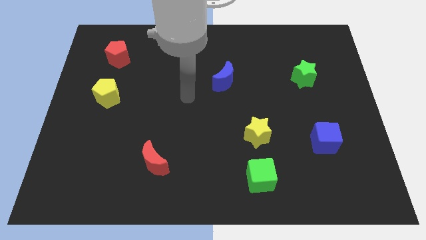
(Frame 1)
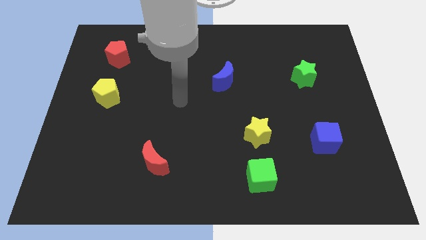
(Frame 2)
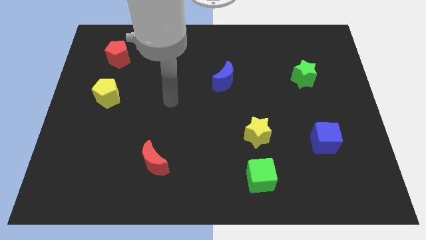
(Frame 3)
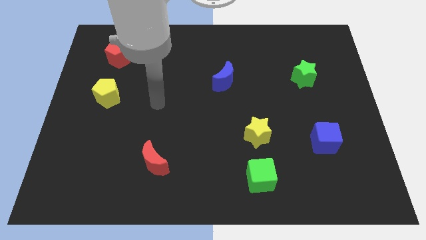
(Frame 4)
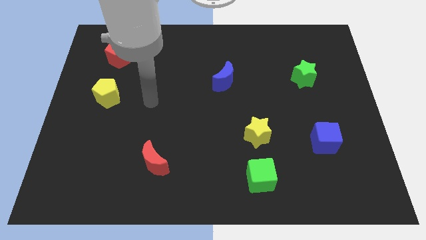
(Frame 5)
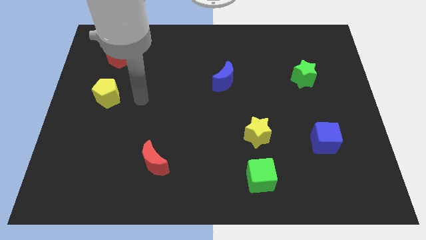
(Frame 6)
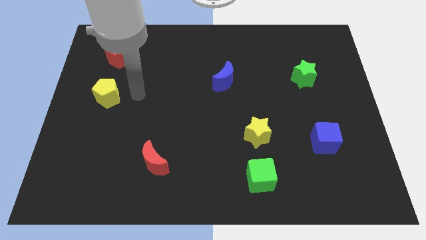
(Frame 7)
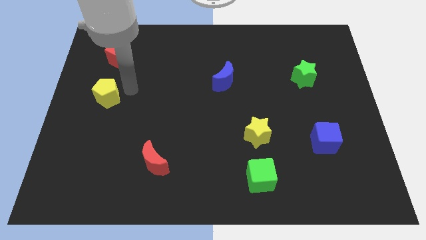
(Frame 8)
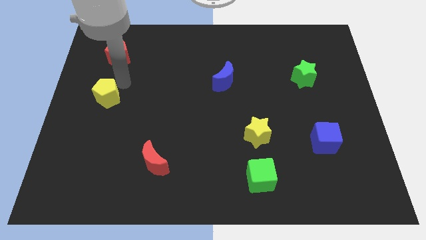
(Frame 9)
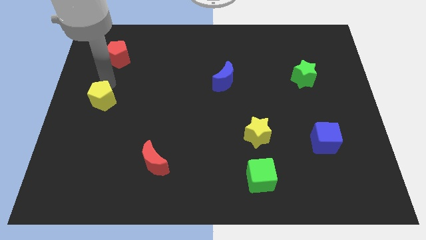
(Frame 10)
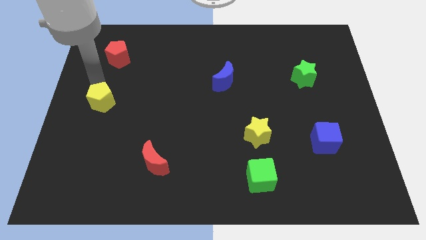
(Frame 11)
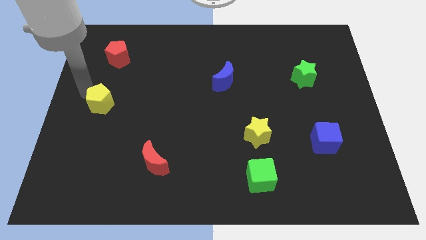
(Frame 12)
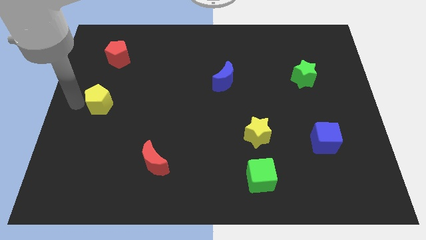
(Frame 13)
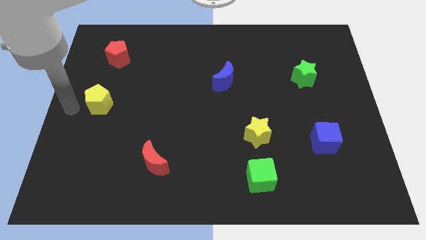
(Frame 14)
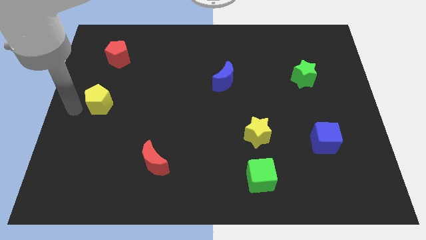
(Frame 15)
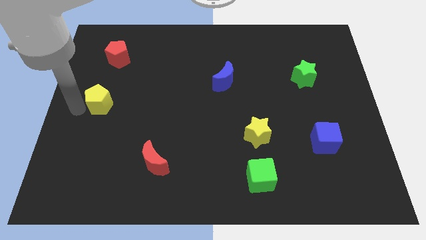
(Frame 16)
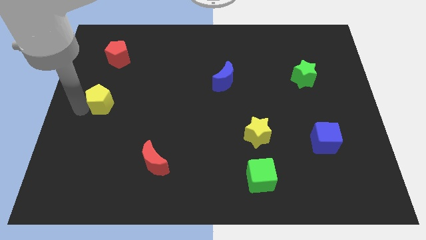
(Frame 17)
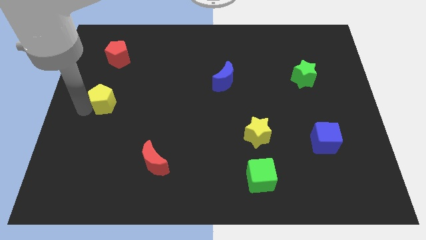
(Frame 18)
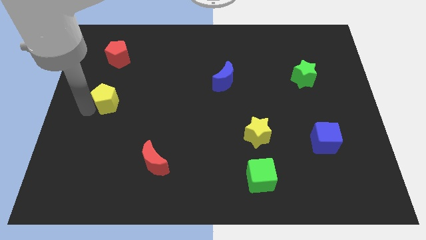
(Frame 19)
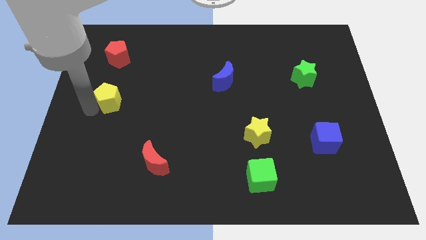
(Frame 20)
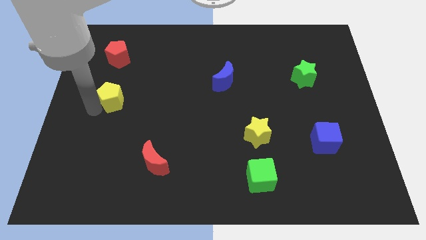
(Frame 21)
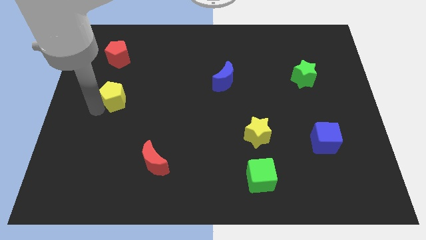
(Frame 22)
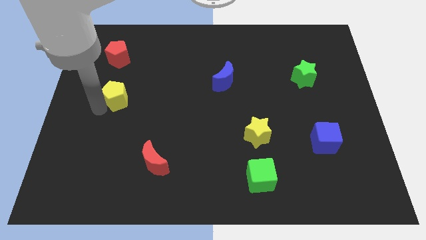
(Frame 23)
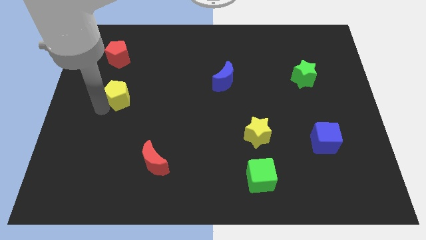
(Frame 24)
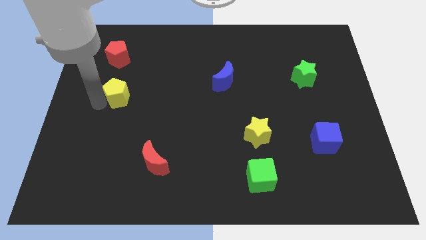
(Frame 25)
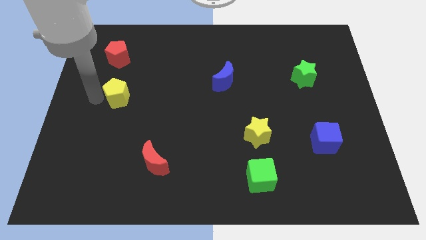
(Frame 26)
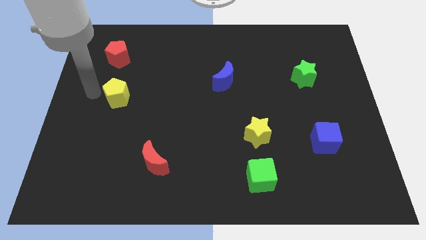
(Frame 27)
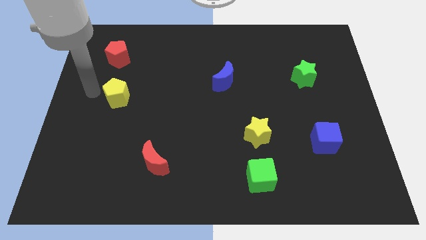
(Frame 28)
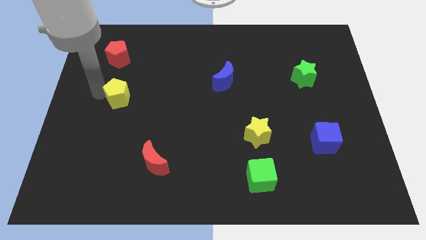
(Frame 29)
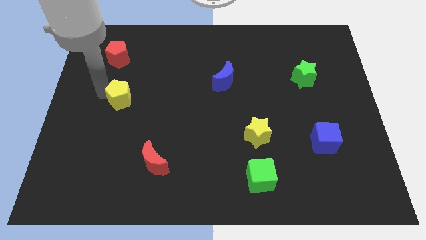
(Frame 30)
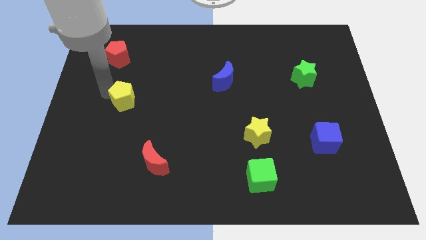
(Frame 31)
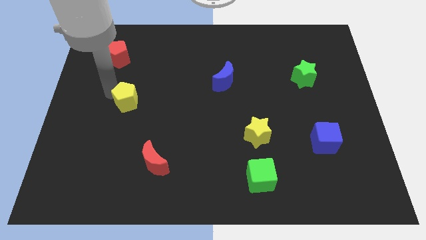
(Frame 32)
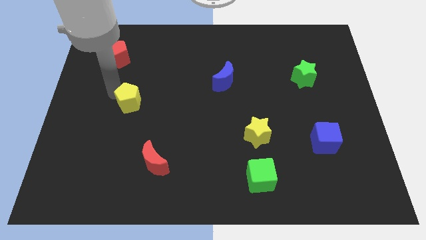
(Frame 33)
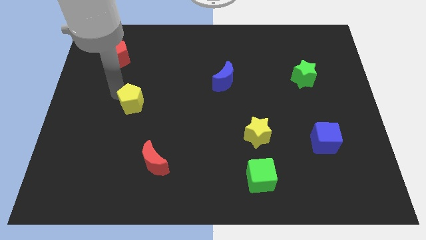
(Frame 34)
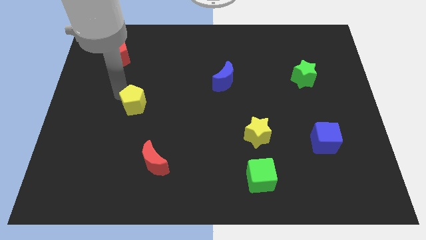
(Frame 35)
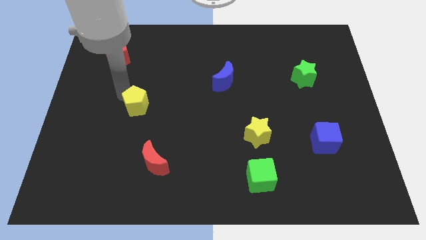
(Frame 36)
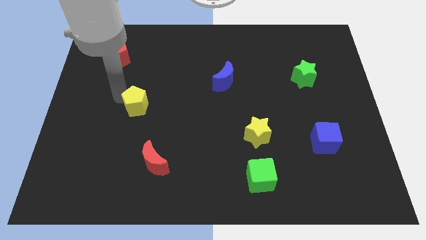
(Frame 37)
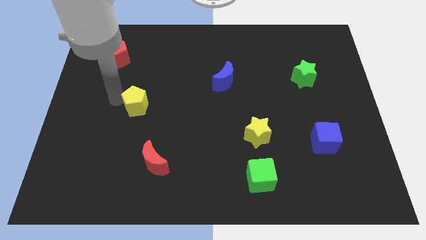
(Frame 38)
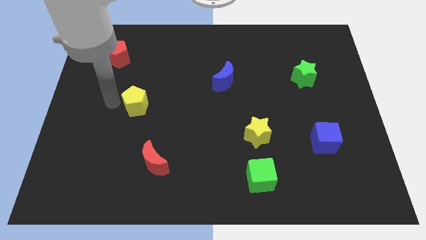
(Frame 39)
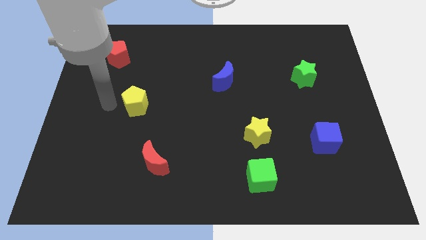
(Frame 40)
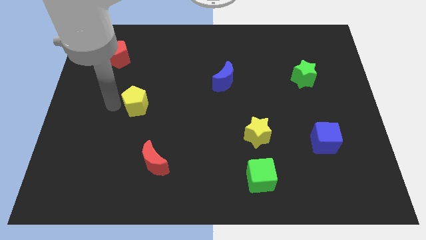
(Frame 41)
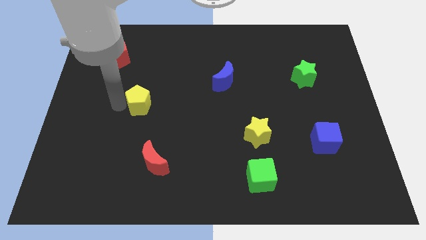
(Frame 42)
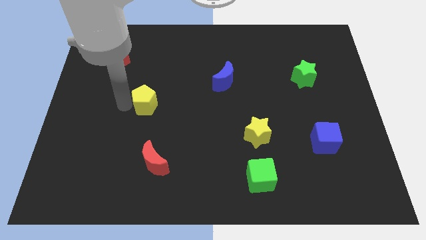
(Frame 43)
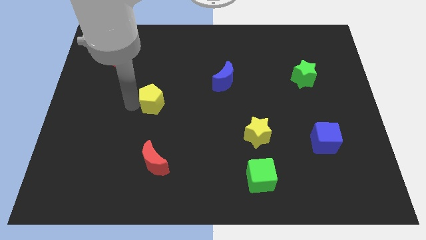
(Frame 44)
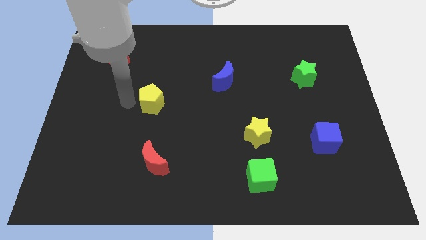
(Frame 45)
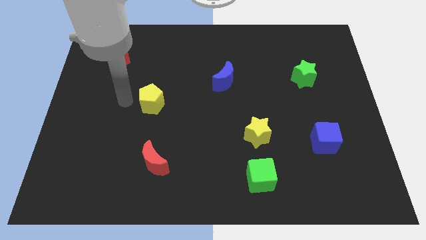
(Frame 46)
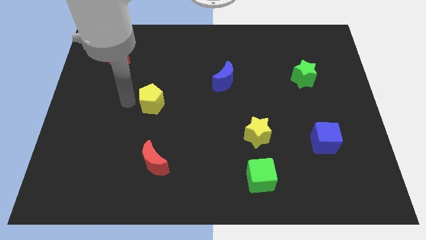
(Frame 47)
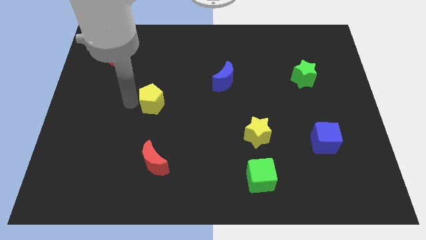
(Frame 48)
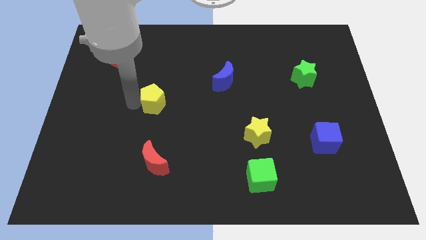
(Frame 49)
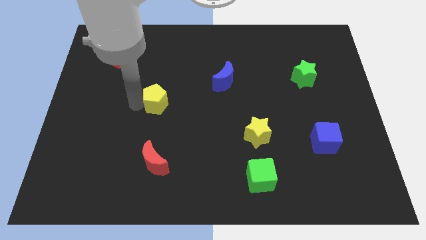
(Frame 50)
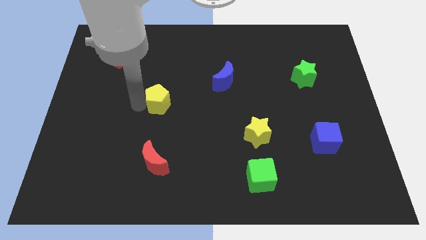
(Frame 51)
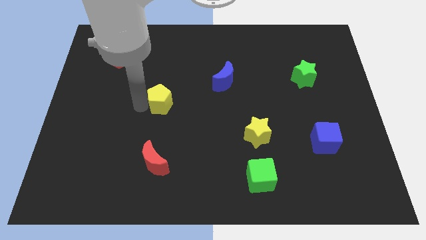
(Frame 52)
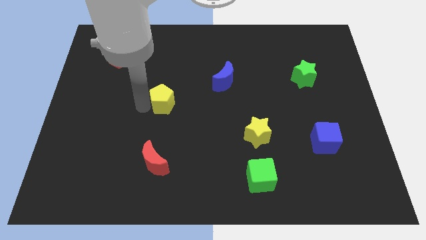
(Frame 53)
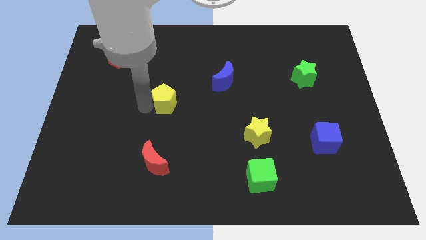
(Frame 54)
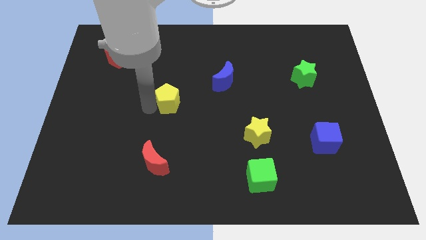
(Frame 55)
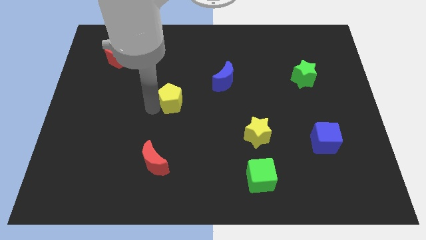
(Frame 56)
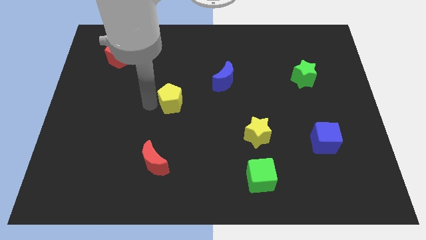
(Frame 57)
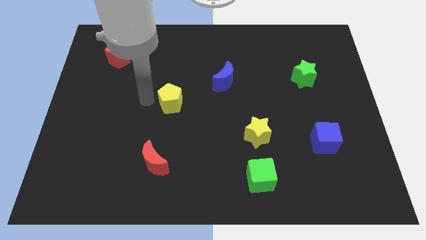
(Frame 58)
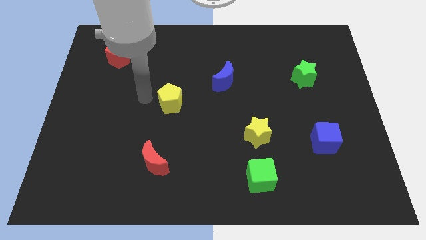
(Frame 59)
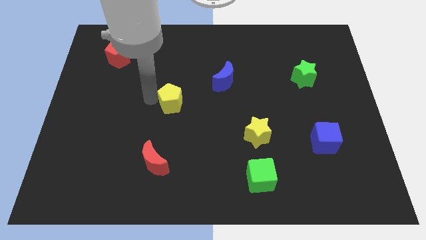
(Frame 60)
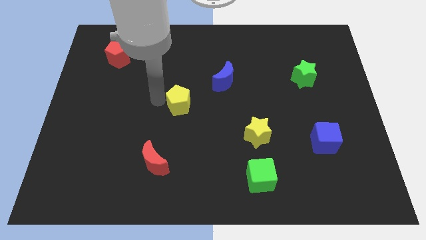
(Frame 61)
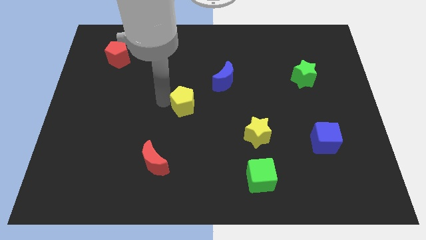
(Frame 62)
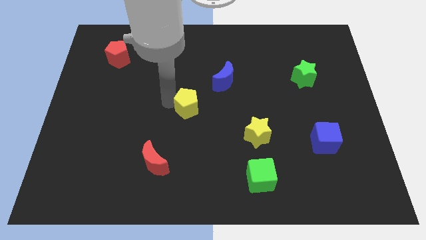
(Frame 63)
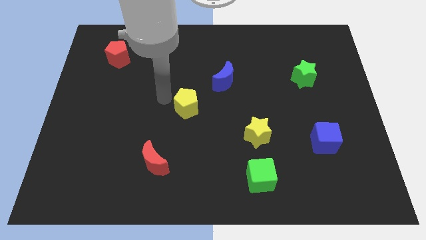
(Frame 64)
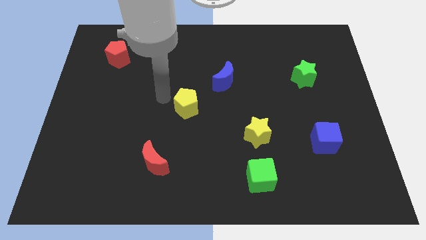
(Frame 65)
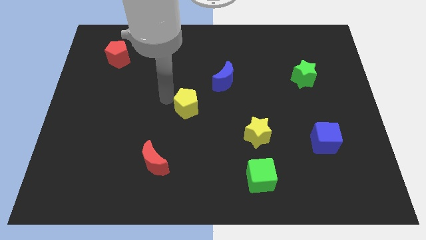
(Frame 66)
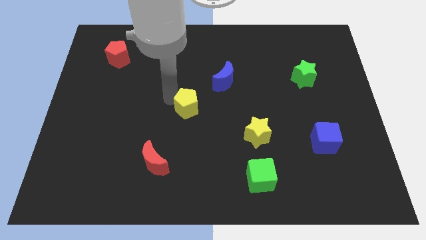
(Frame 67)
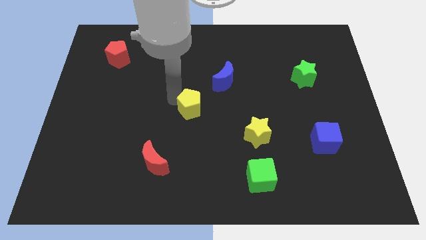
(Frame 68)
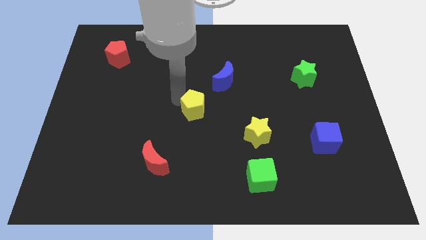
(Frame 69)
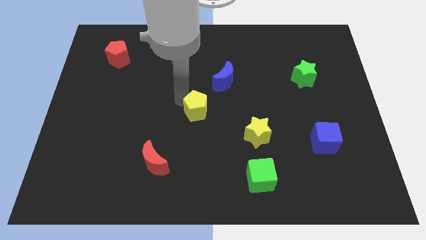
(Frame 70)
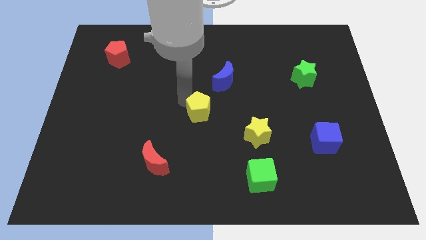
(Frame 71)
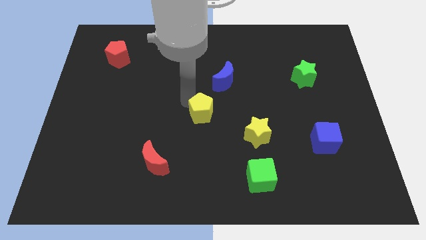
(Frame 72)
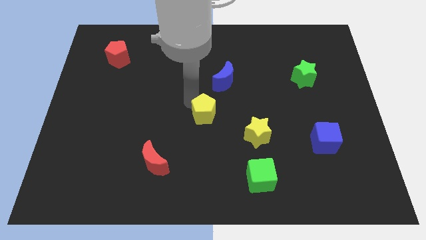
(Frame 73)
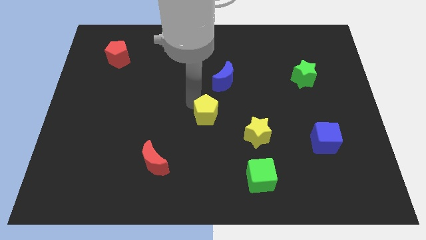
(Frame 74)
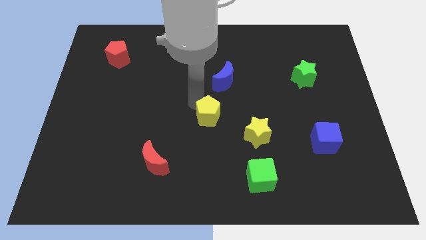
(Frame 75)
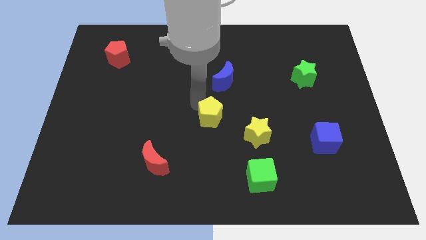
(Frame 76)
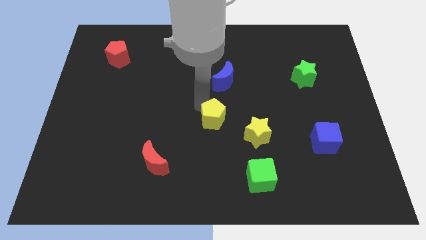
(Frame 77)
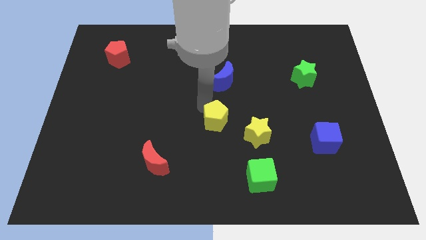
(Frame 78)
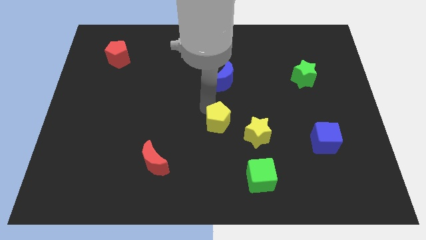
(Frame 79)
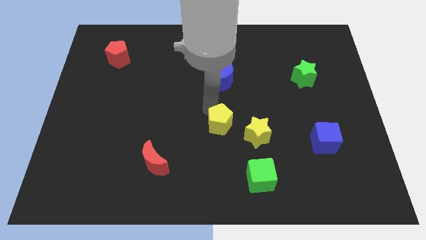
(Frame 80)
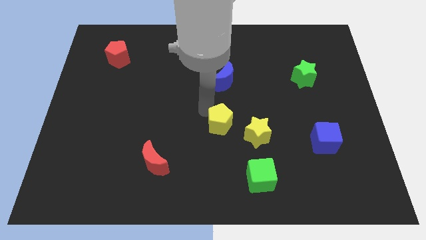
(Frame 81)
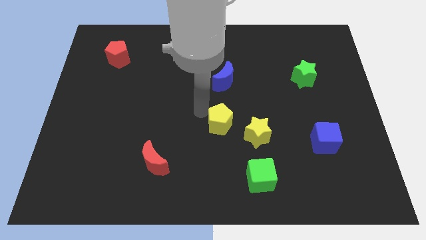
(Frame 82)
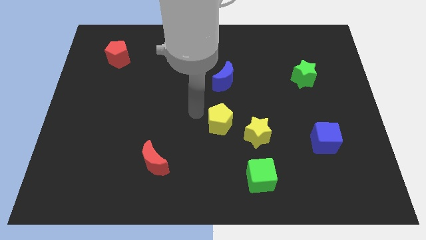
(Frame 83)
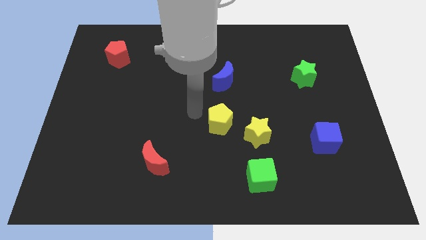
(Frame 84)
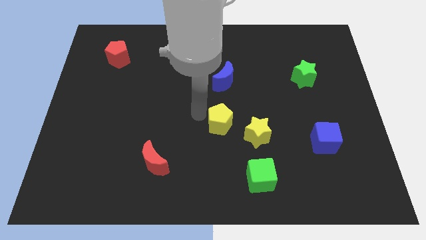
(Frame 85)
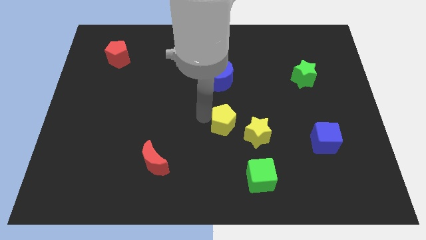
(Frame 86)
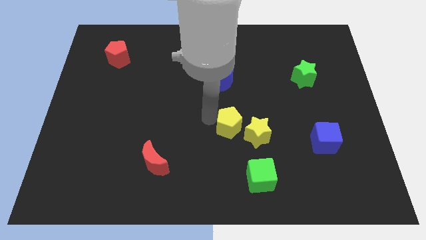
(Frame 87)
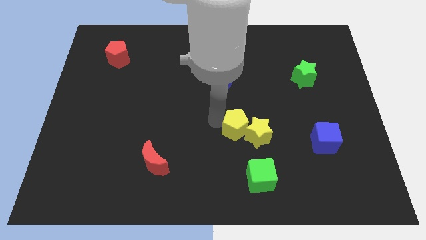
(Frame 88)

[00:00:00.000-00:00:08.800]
put the yellow pentagon to the yellow star
